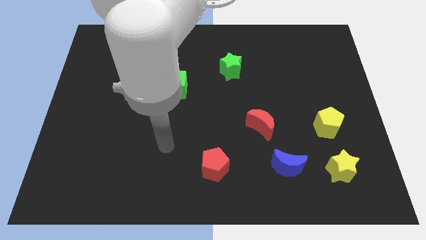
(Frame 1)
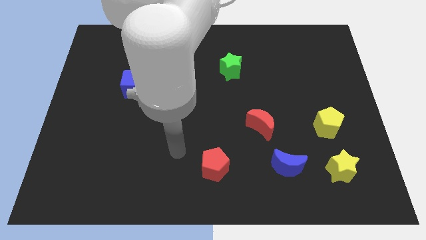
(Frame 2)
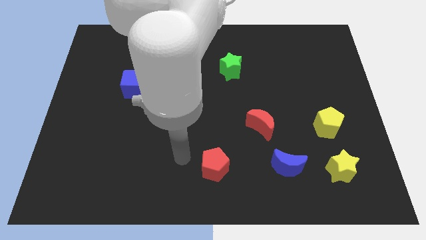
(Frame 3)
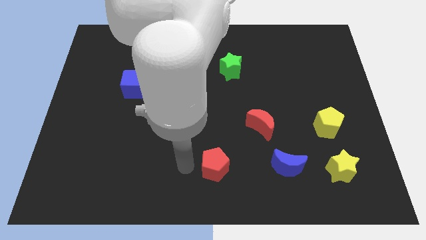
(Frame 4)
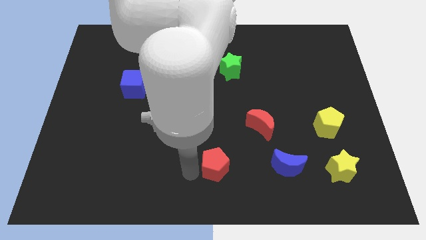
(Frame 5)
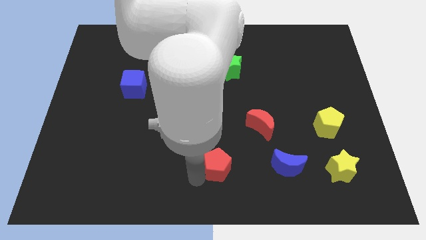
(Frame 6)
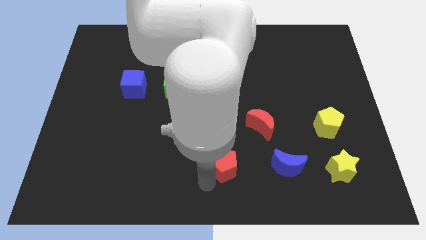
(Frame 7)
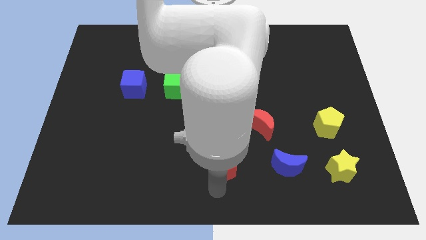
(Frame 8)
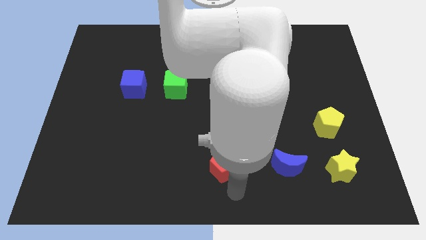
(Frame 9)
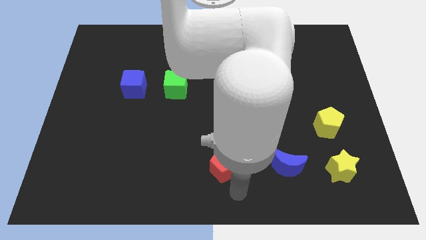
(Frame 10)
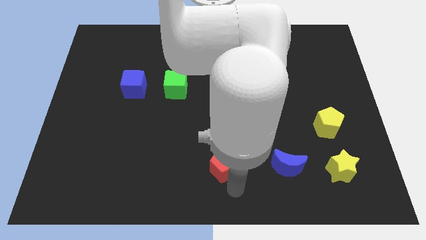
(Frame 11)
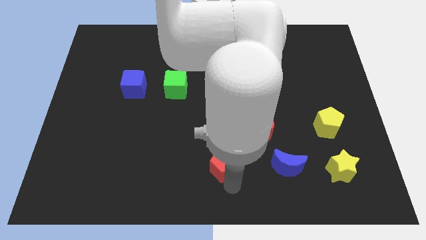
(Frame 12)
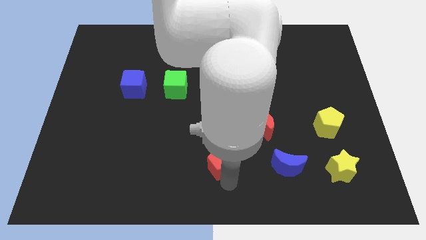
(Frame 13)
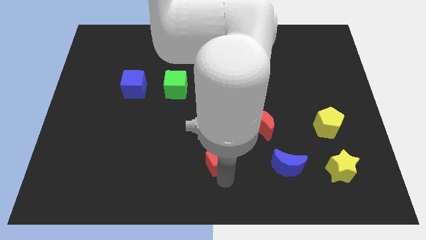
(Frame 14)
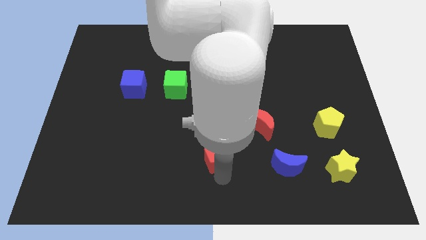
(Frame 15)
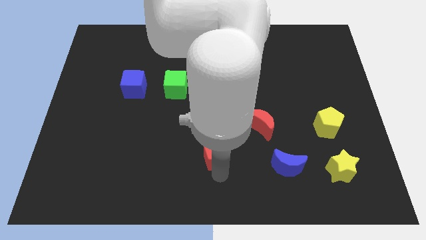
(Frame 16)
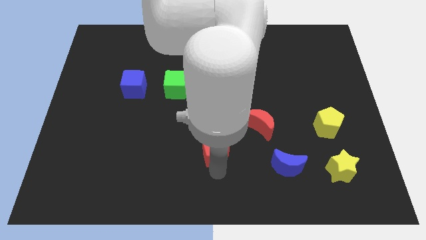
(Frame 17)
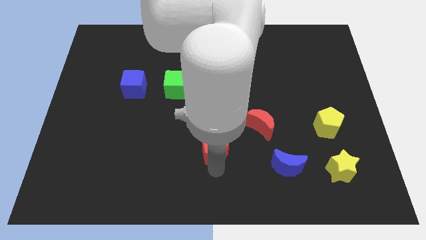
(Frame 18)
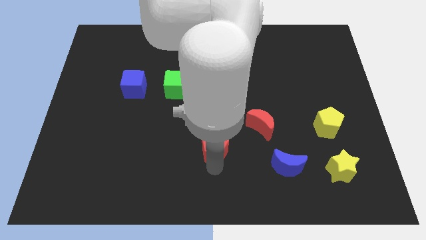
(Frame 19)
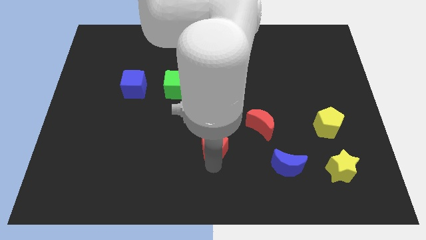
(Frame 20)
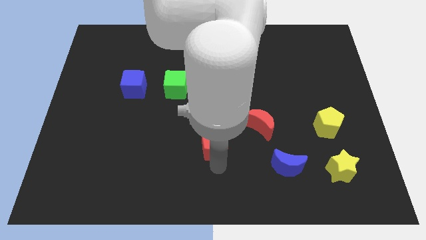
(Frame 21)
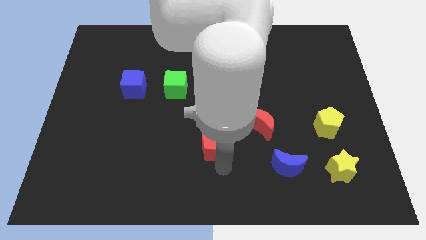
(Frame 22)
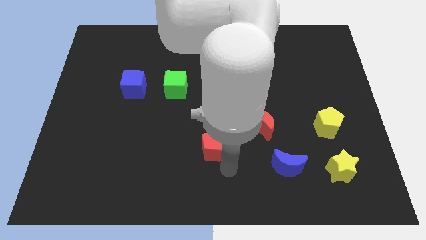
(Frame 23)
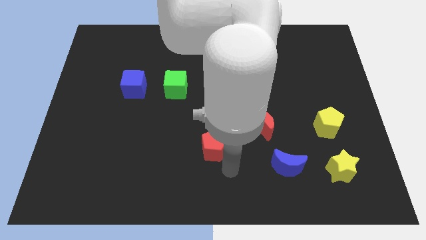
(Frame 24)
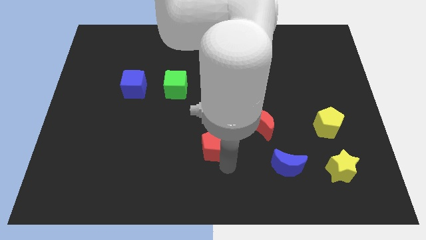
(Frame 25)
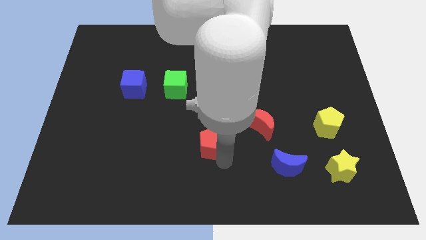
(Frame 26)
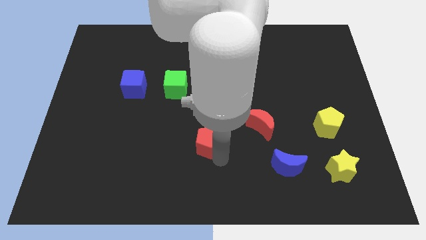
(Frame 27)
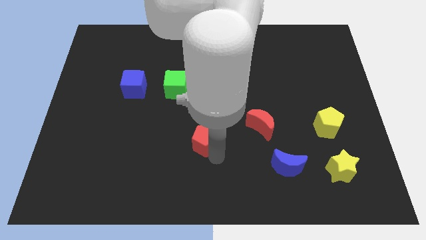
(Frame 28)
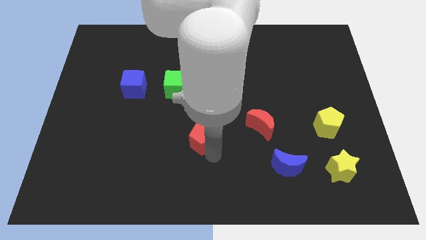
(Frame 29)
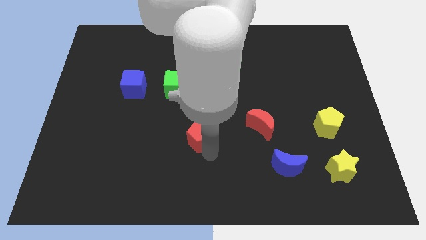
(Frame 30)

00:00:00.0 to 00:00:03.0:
move the red pentagon upwards slightly

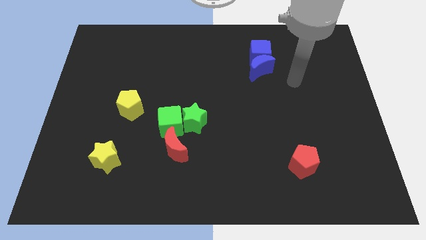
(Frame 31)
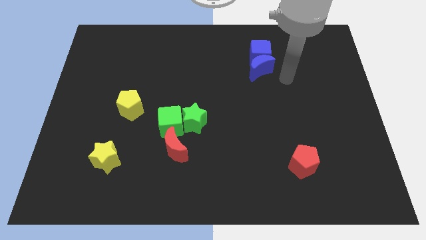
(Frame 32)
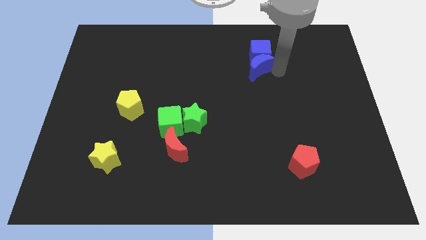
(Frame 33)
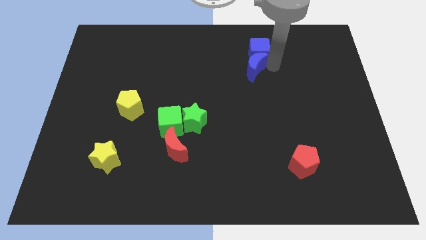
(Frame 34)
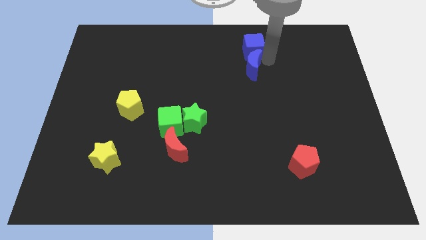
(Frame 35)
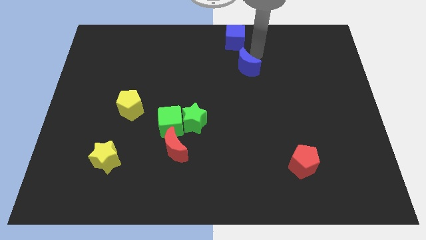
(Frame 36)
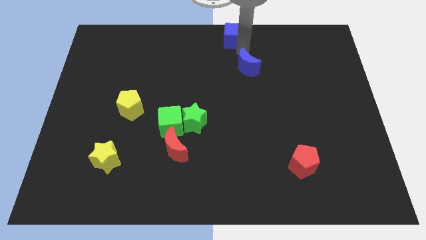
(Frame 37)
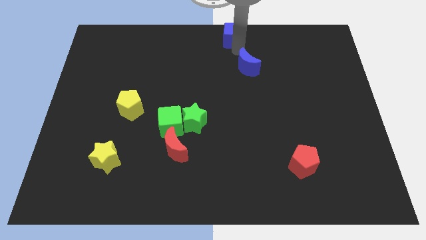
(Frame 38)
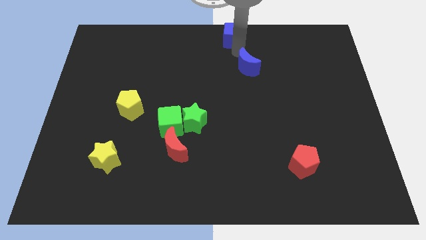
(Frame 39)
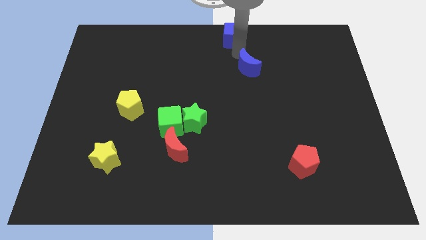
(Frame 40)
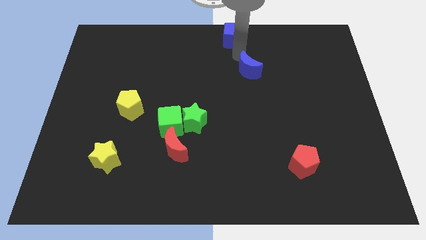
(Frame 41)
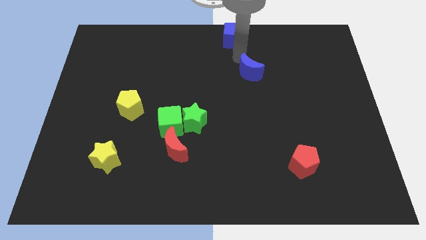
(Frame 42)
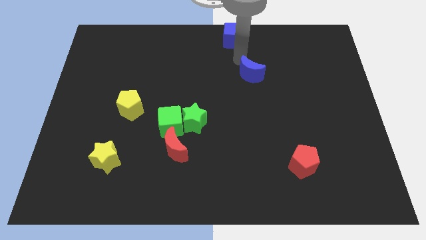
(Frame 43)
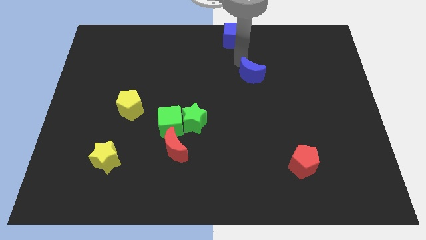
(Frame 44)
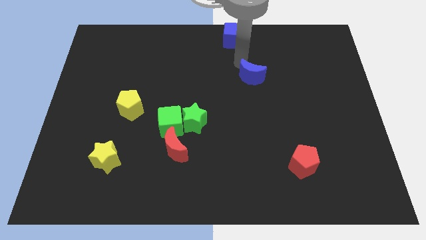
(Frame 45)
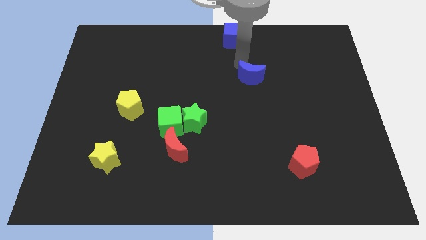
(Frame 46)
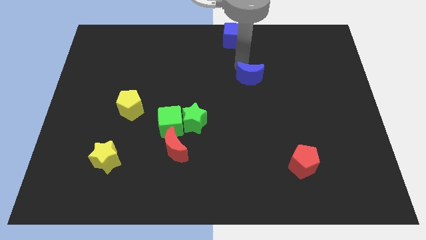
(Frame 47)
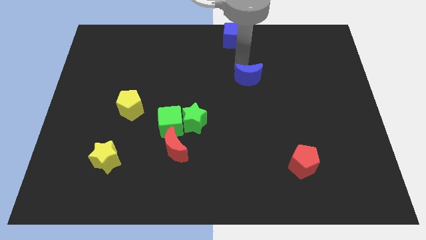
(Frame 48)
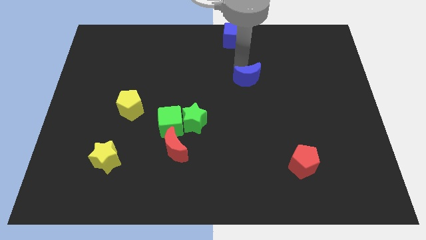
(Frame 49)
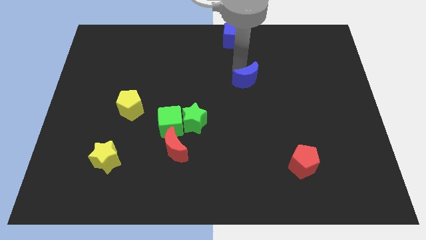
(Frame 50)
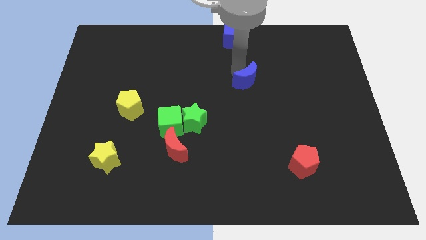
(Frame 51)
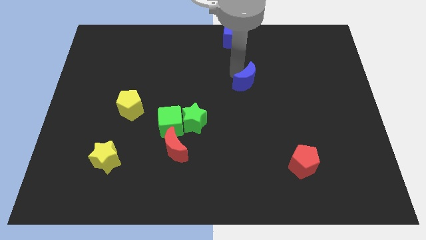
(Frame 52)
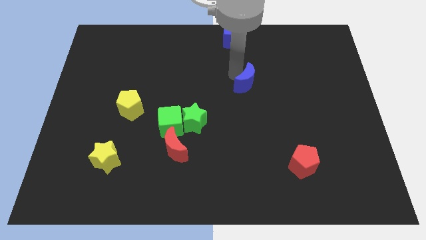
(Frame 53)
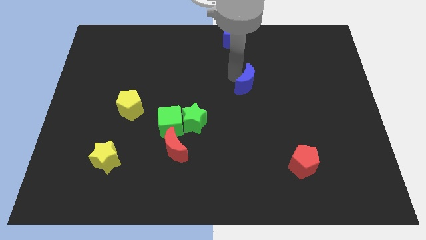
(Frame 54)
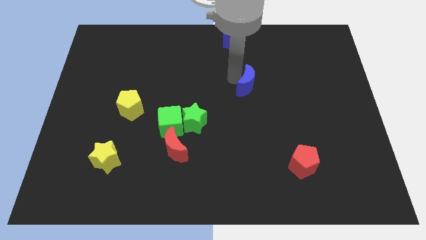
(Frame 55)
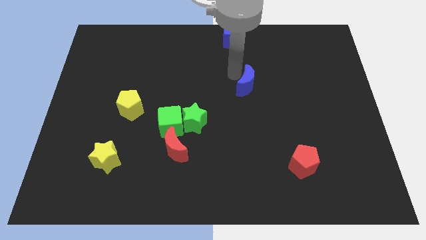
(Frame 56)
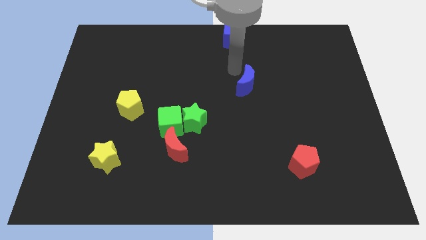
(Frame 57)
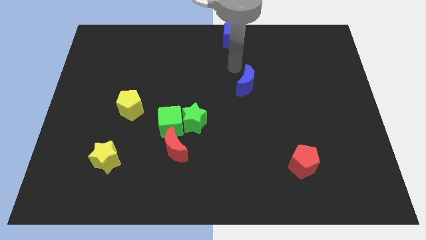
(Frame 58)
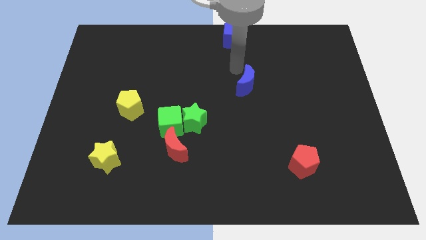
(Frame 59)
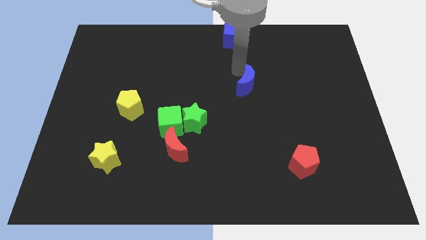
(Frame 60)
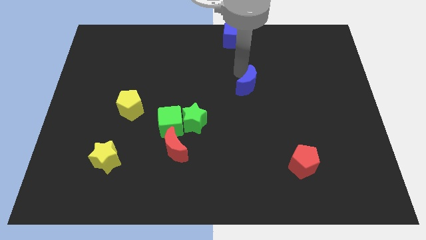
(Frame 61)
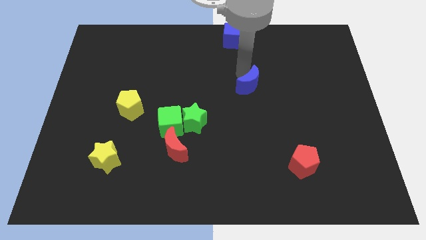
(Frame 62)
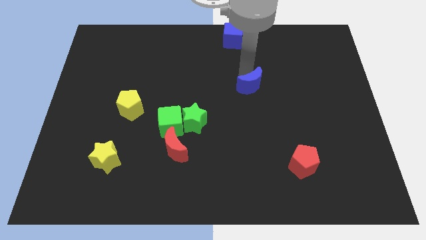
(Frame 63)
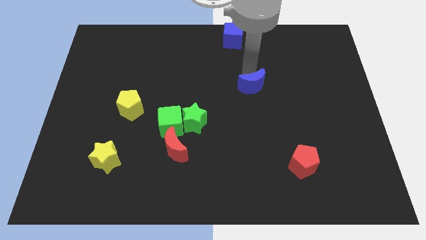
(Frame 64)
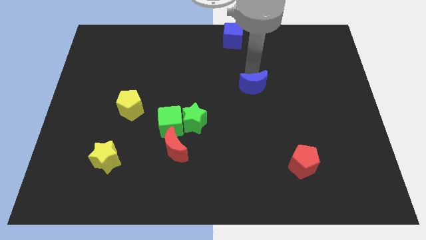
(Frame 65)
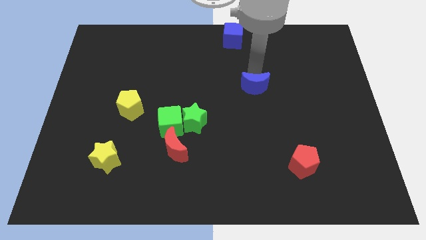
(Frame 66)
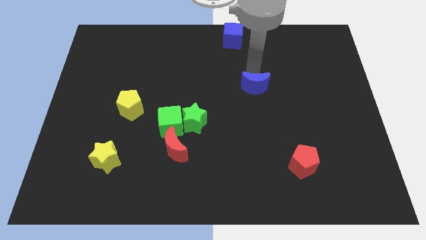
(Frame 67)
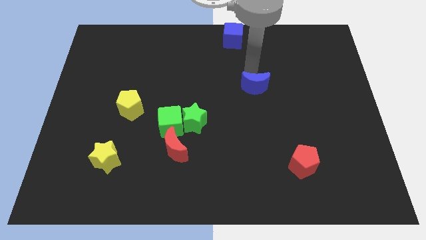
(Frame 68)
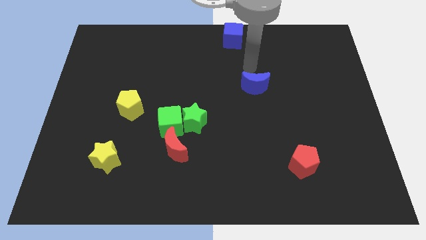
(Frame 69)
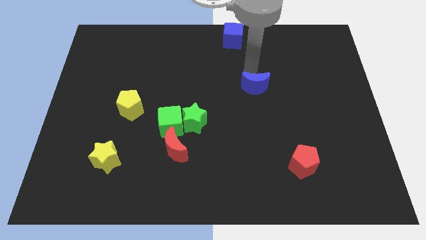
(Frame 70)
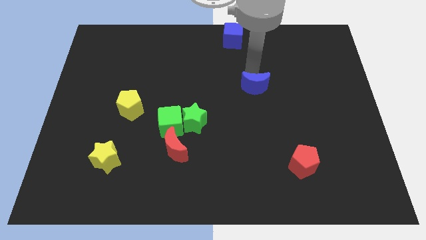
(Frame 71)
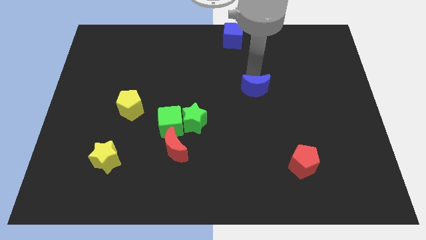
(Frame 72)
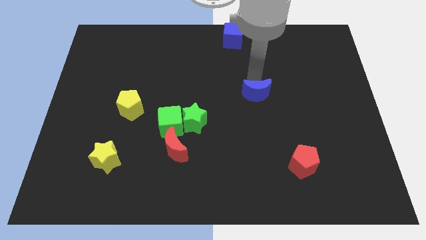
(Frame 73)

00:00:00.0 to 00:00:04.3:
slide the blue moon downwards a little bit

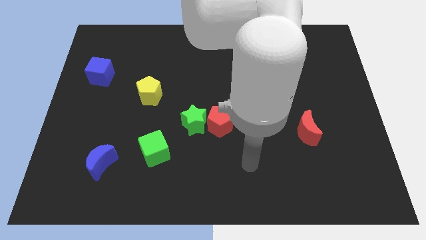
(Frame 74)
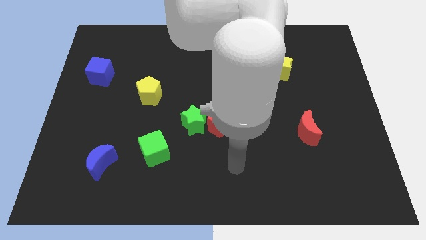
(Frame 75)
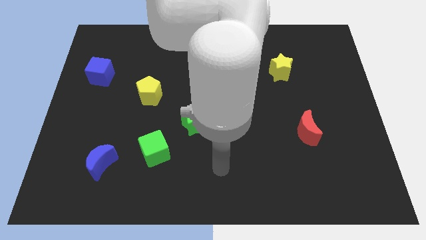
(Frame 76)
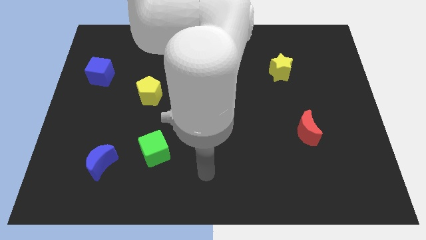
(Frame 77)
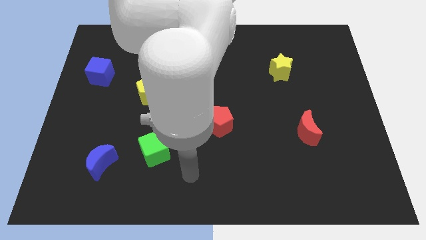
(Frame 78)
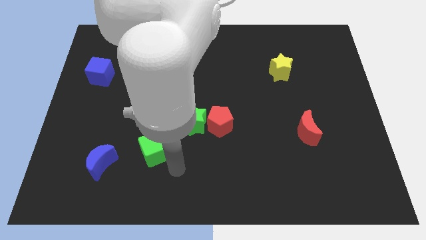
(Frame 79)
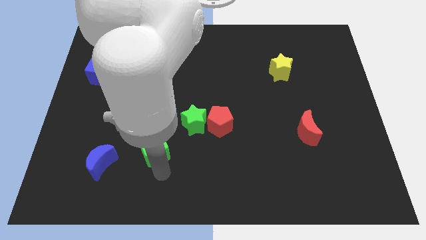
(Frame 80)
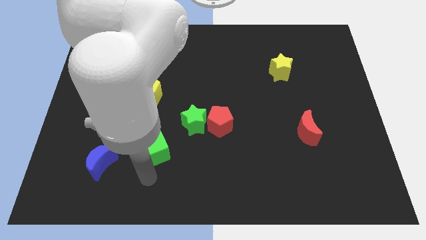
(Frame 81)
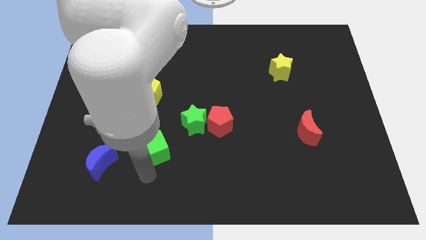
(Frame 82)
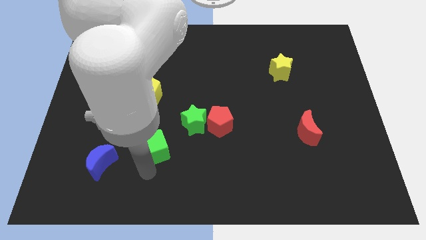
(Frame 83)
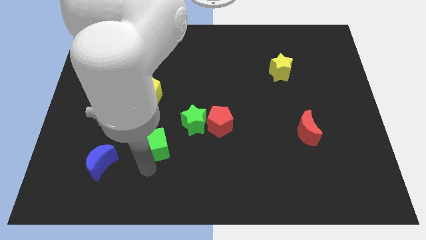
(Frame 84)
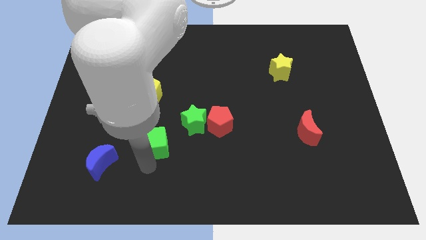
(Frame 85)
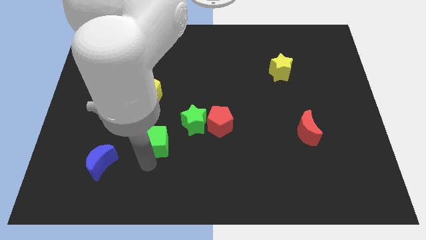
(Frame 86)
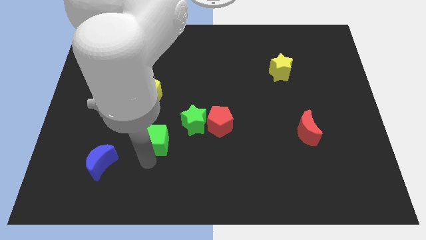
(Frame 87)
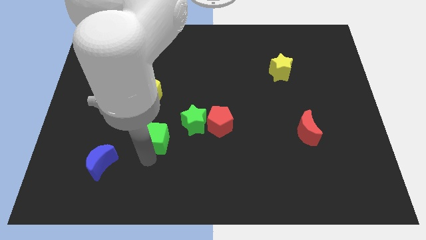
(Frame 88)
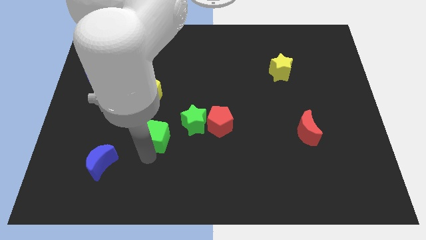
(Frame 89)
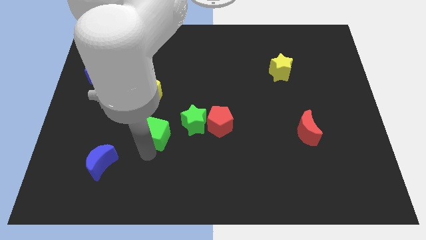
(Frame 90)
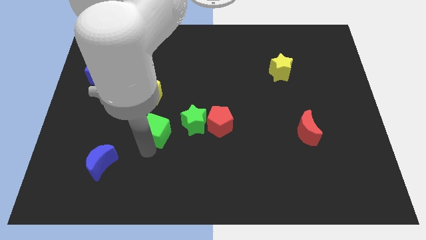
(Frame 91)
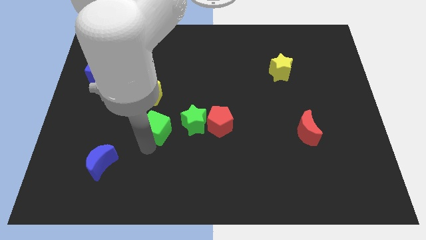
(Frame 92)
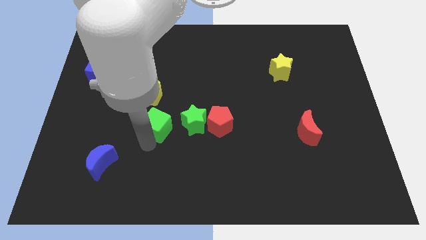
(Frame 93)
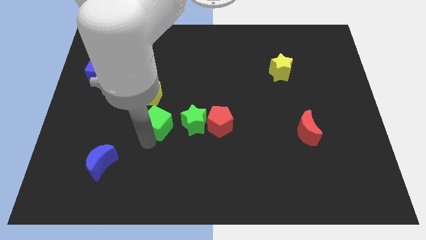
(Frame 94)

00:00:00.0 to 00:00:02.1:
push the green cube upwards a bit
